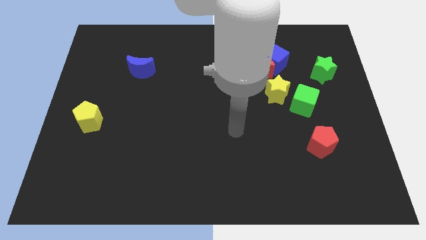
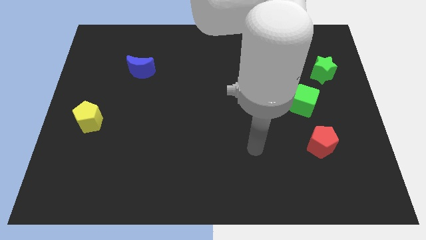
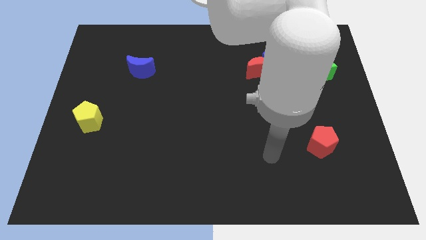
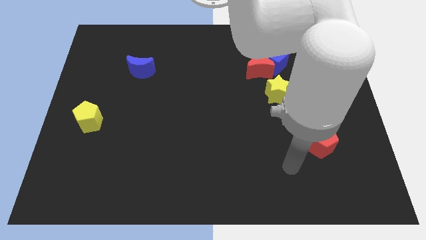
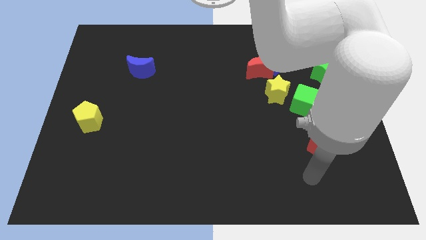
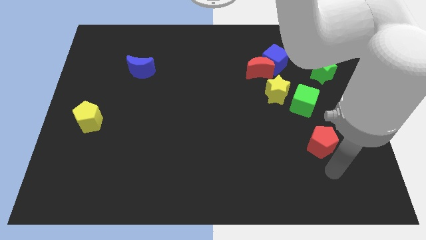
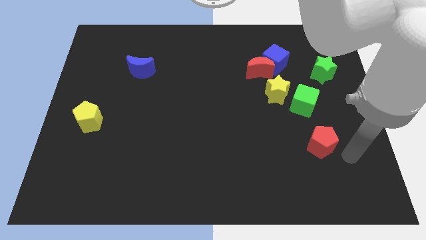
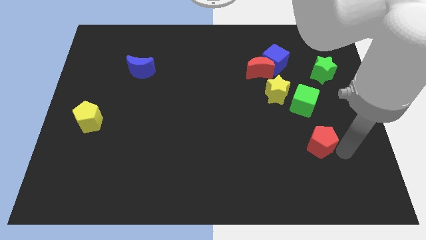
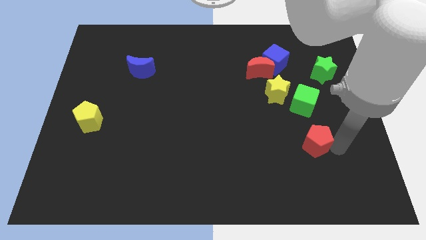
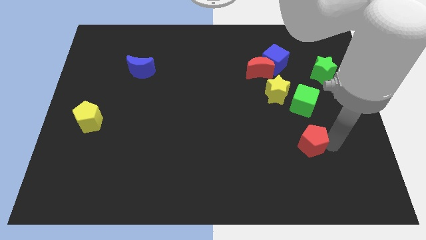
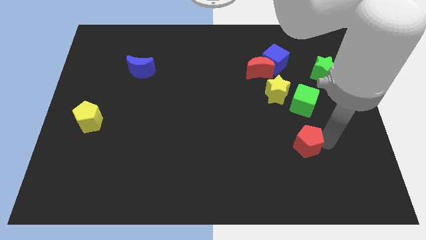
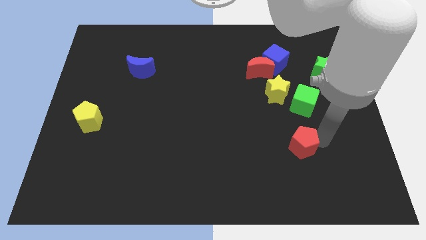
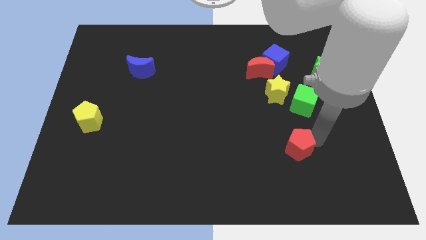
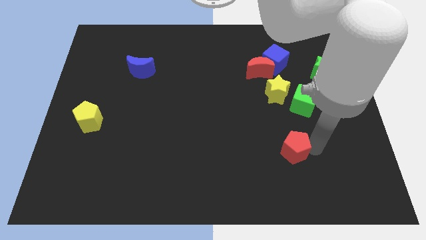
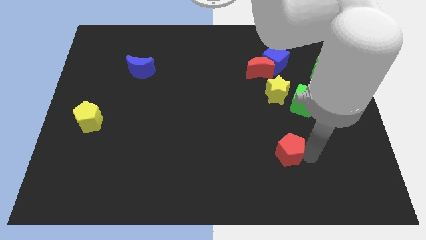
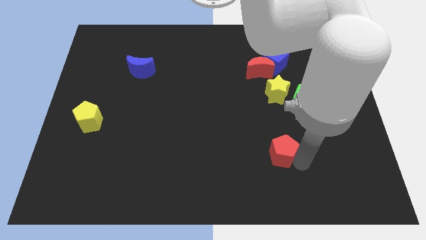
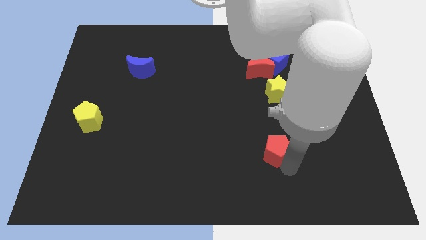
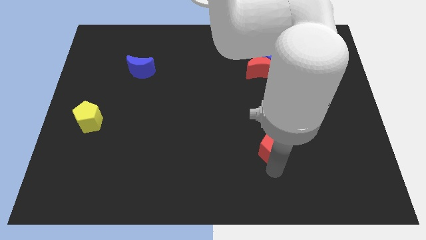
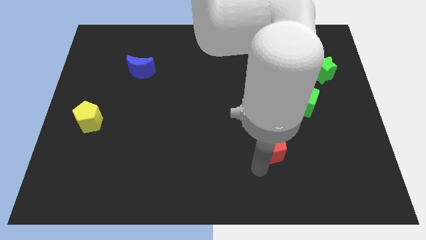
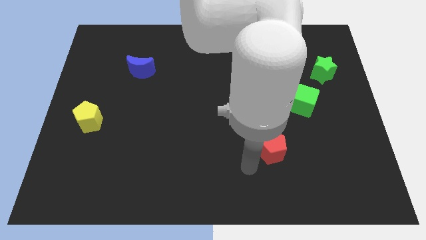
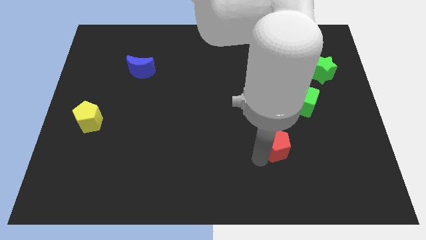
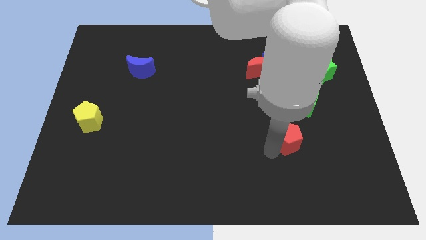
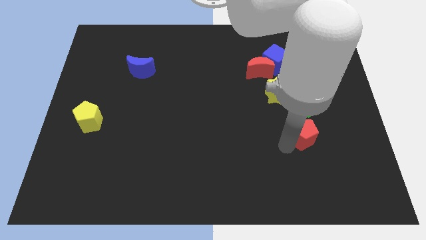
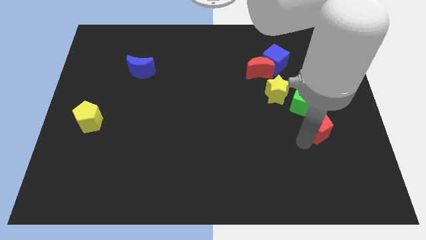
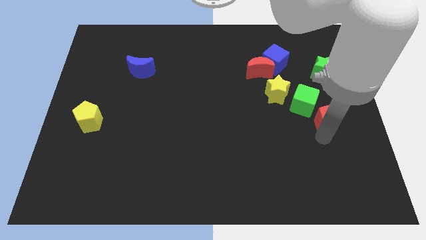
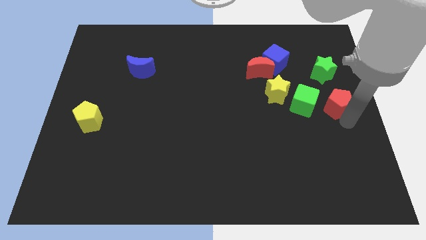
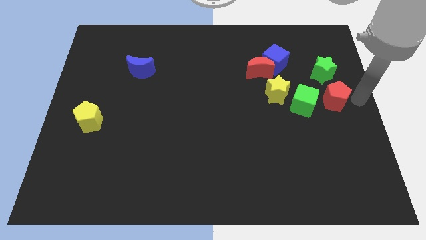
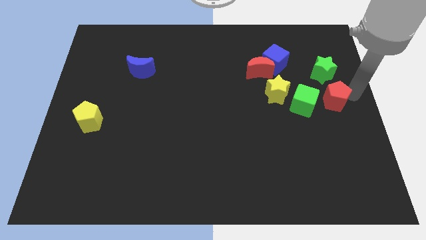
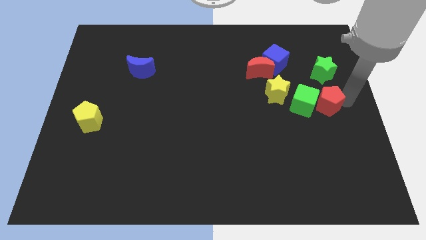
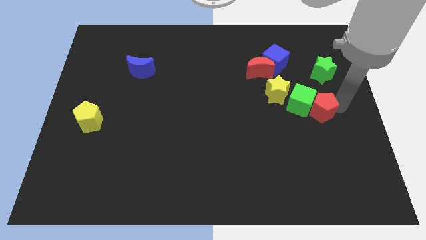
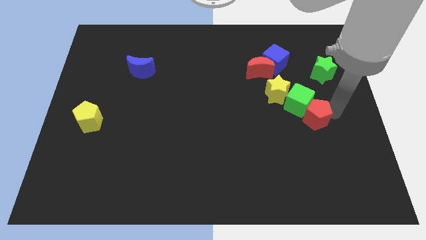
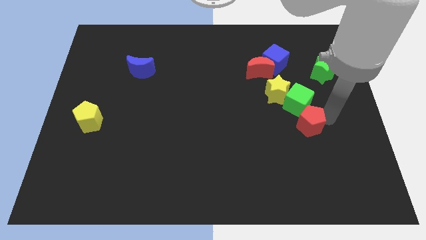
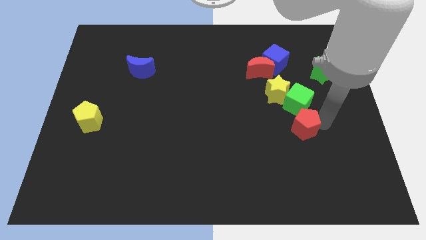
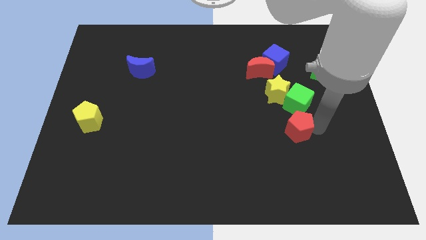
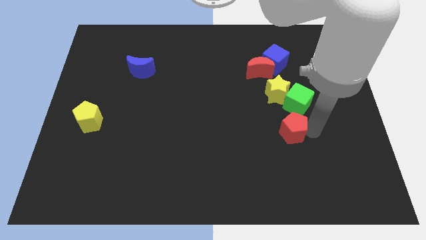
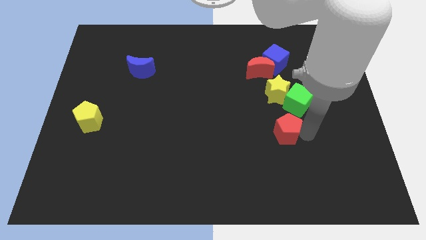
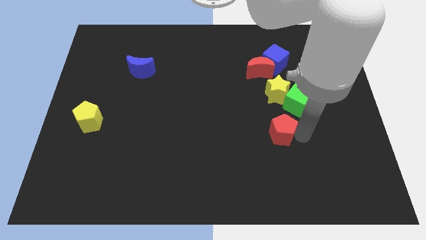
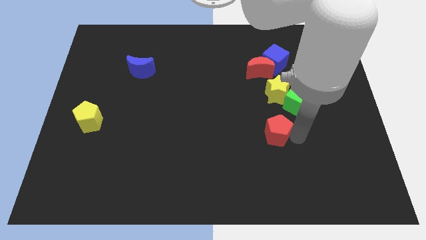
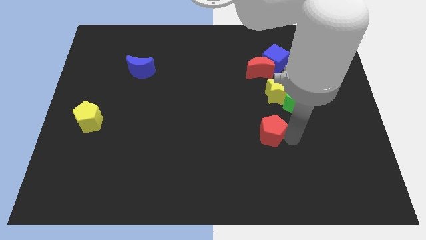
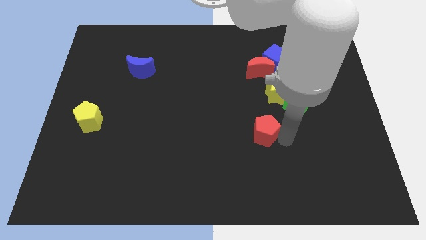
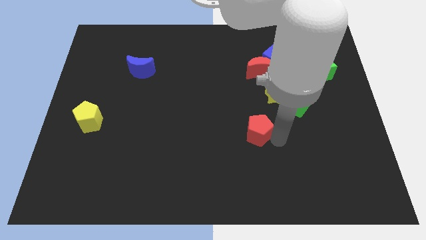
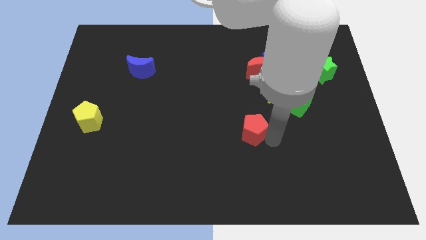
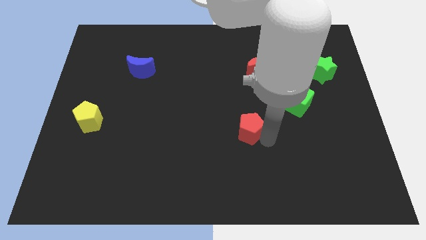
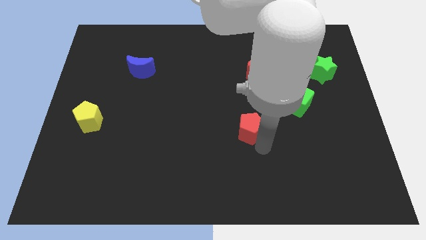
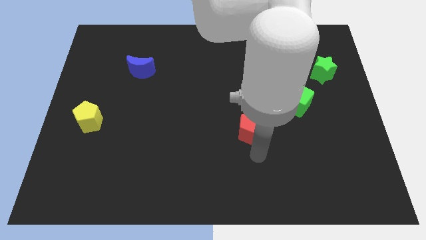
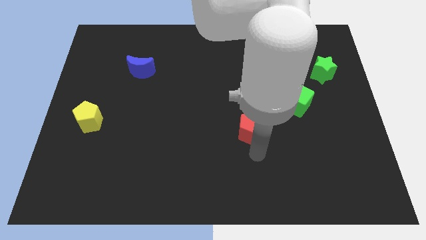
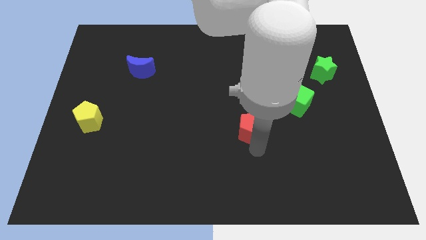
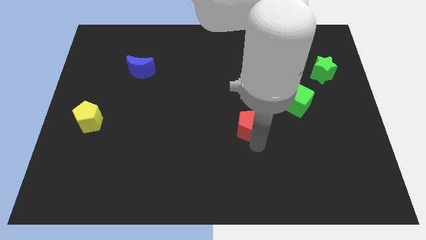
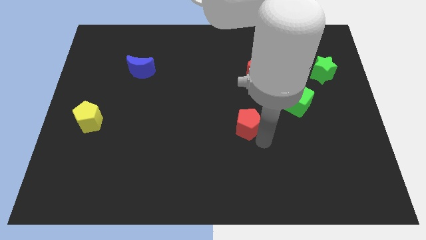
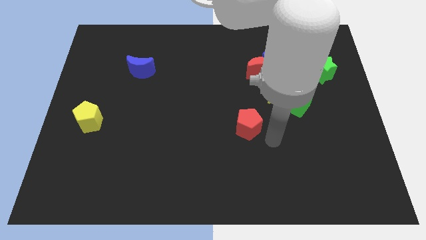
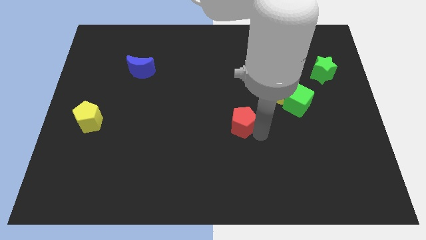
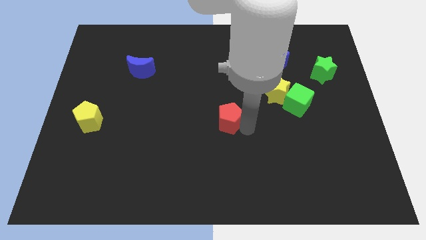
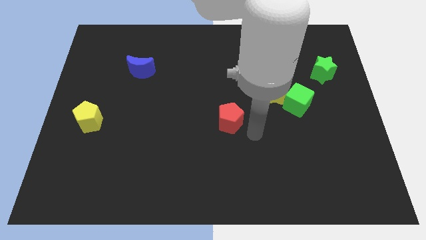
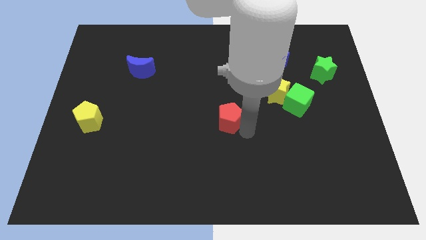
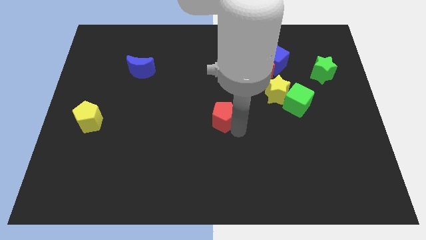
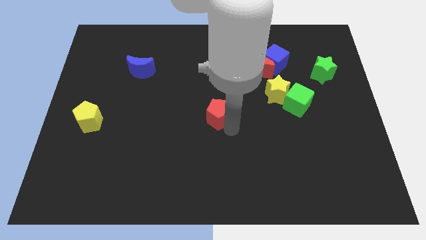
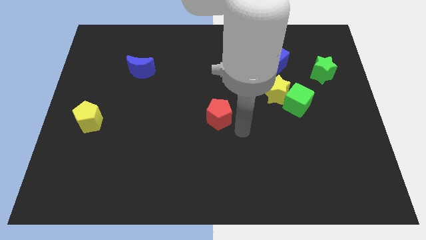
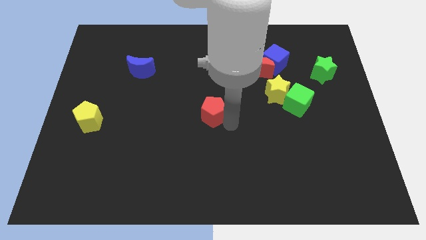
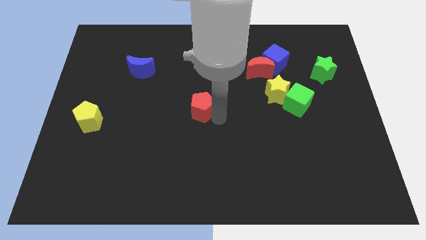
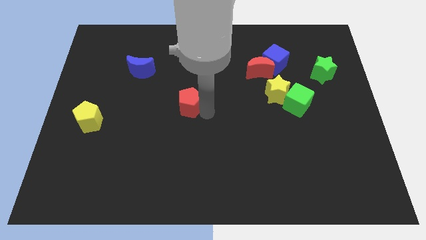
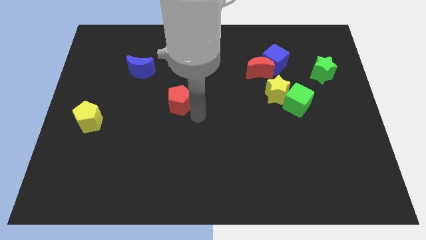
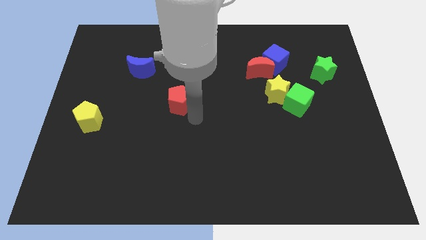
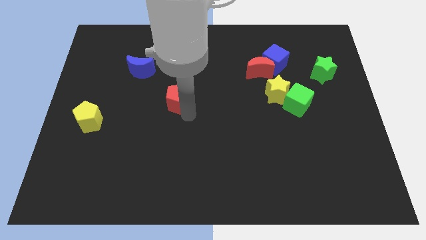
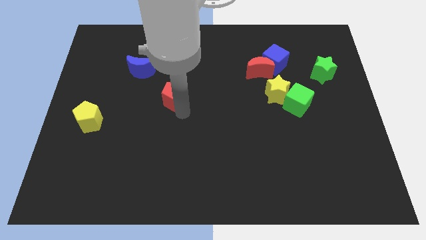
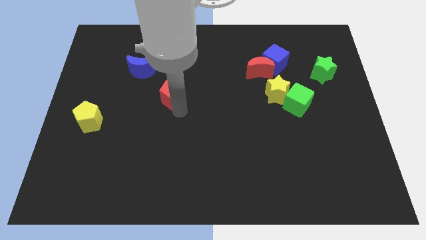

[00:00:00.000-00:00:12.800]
slide the red pentagon diagonally down and to the right of the blue moon
